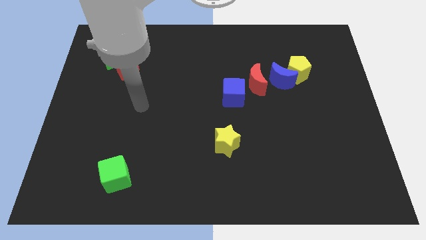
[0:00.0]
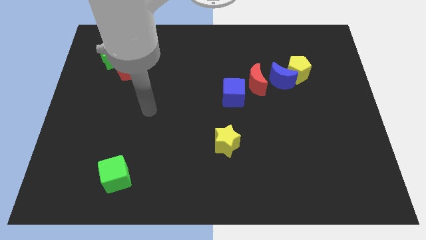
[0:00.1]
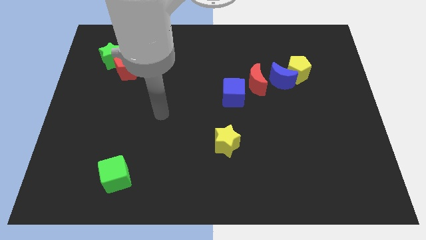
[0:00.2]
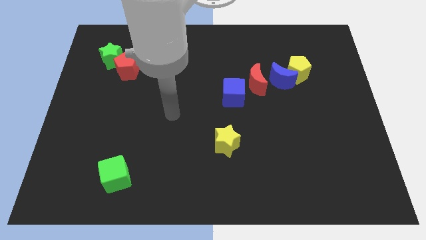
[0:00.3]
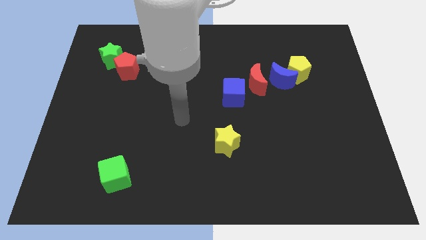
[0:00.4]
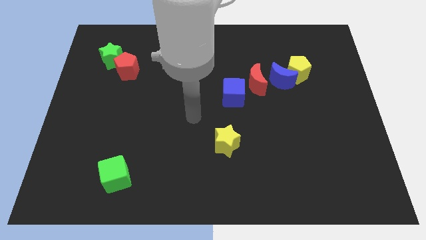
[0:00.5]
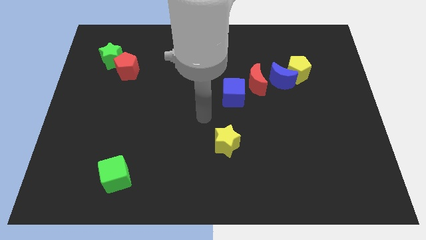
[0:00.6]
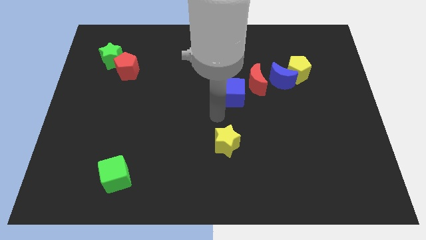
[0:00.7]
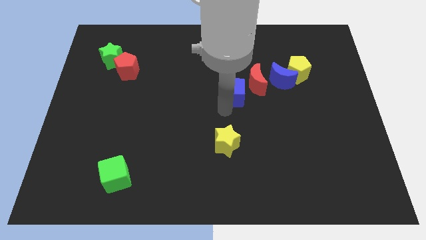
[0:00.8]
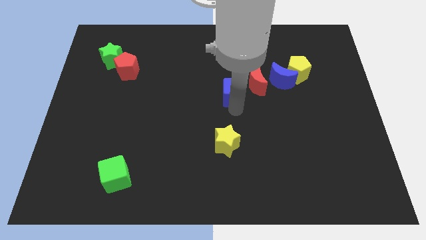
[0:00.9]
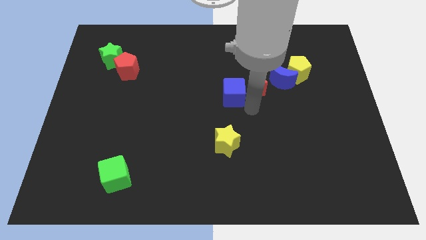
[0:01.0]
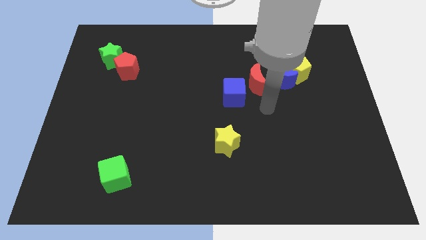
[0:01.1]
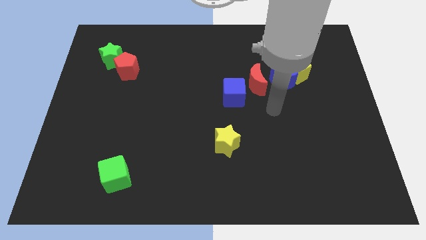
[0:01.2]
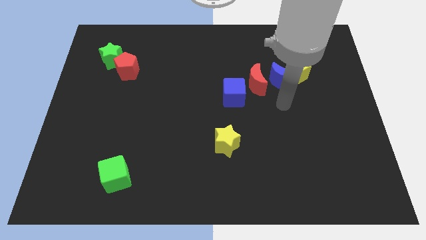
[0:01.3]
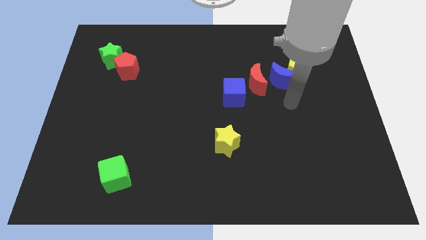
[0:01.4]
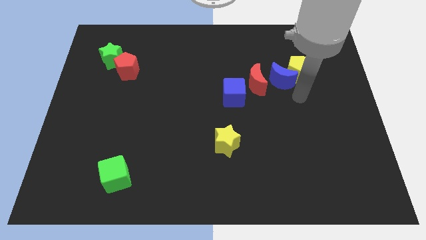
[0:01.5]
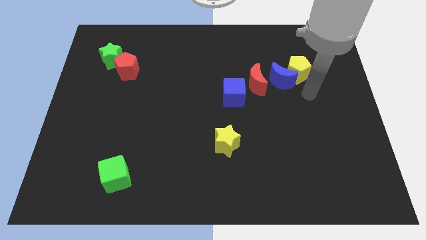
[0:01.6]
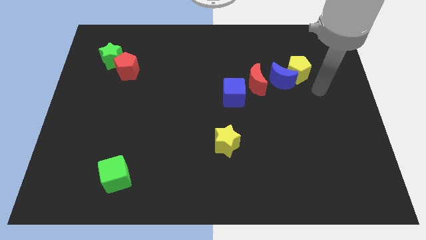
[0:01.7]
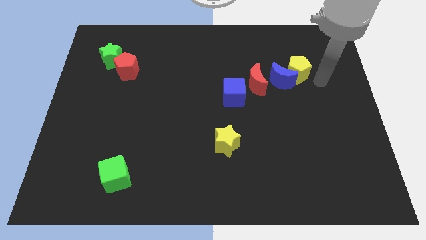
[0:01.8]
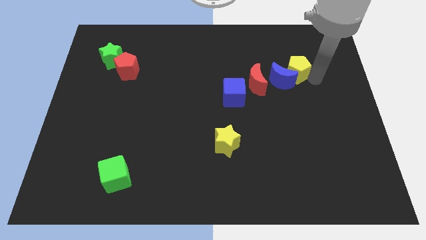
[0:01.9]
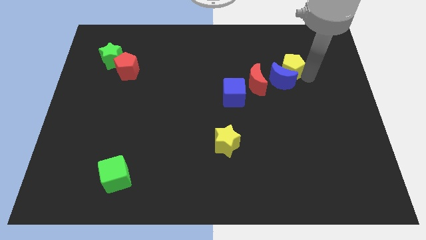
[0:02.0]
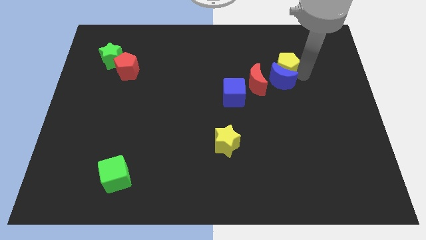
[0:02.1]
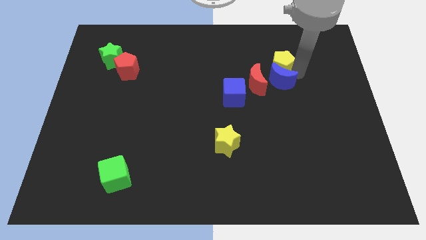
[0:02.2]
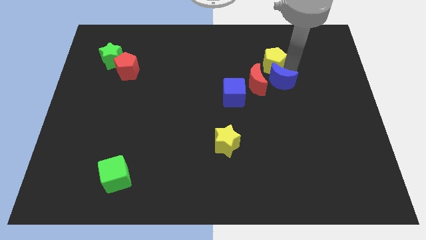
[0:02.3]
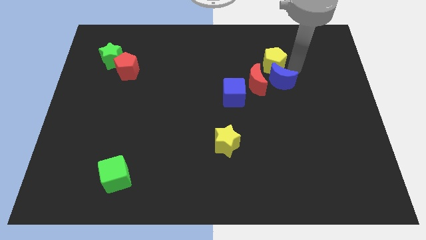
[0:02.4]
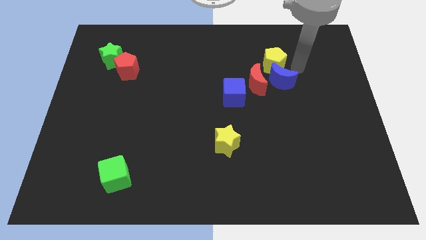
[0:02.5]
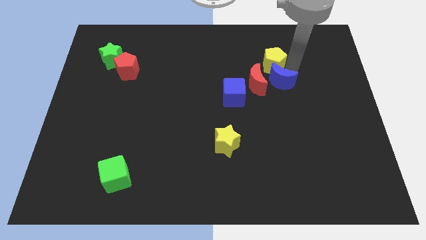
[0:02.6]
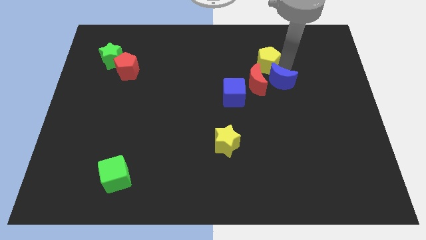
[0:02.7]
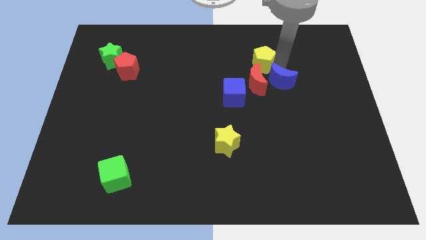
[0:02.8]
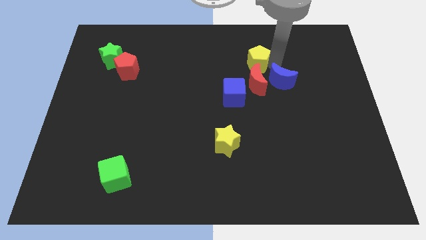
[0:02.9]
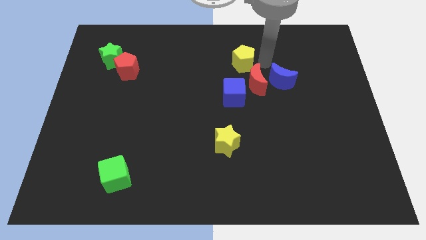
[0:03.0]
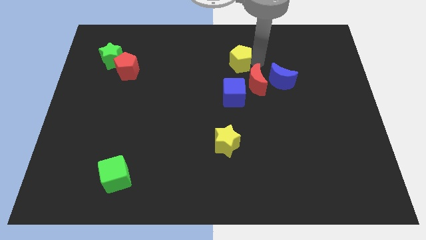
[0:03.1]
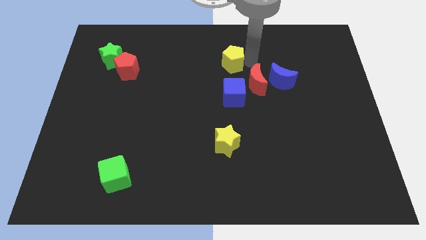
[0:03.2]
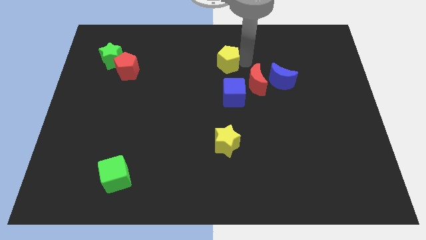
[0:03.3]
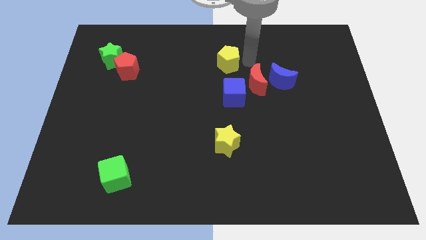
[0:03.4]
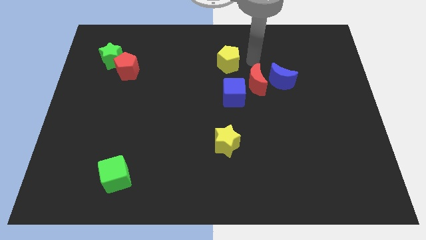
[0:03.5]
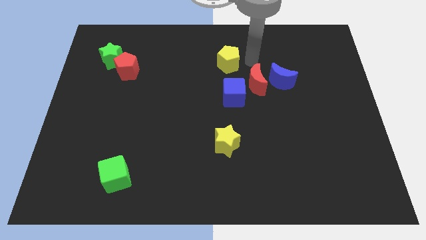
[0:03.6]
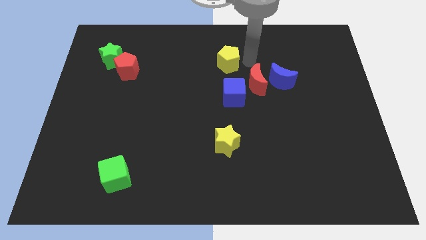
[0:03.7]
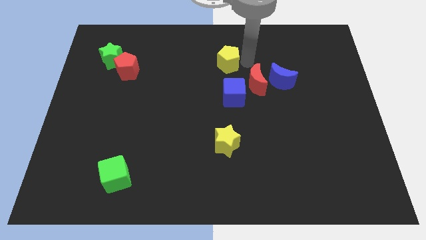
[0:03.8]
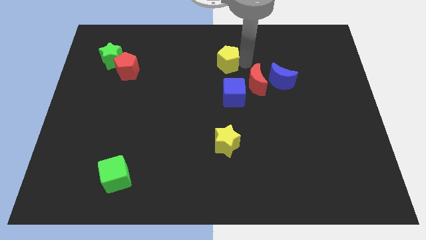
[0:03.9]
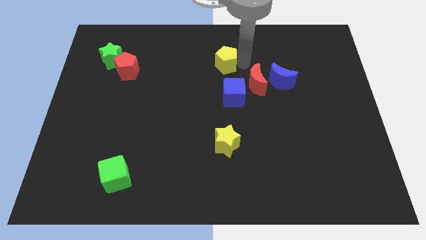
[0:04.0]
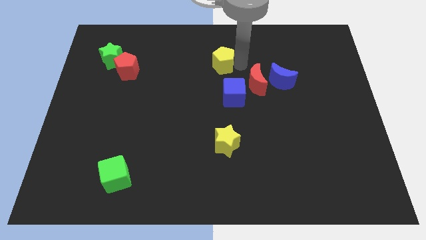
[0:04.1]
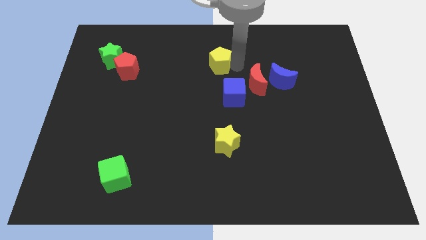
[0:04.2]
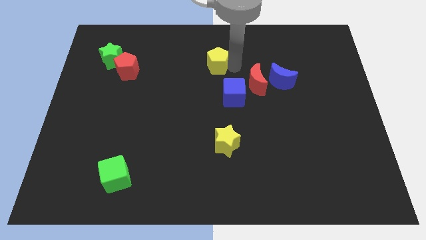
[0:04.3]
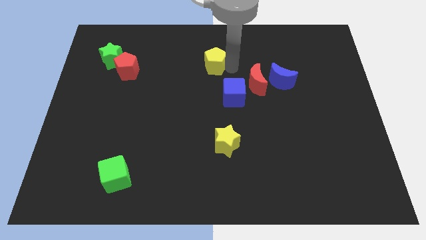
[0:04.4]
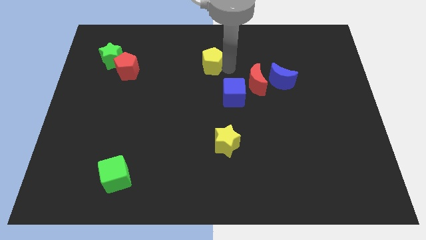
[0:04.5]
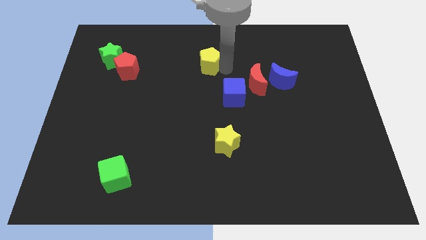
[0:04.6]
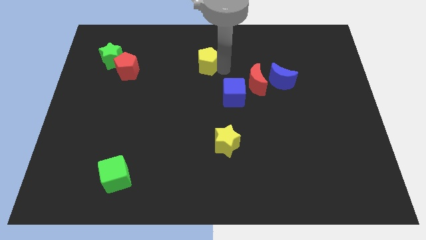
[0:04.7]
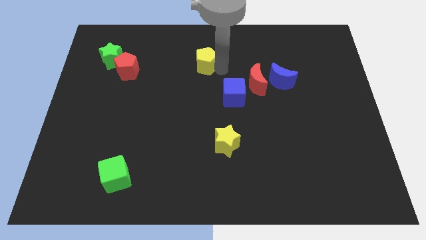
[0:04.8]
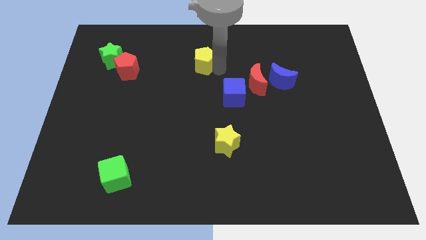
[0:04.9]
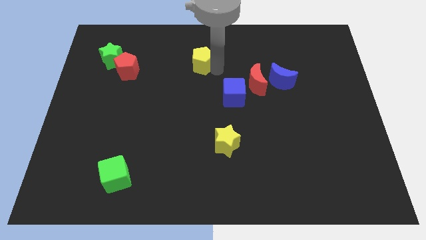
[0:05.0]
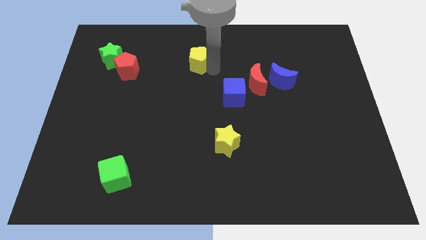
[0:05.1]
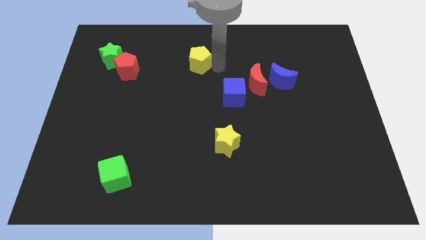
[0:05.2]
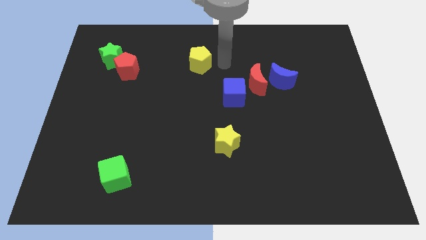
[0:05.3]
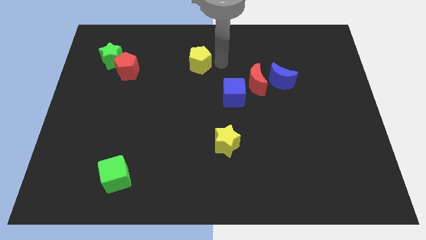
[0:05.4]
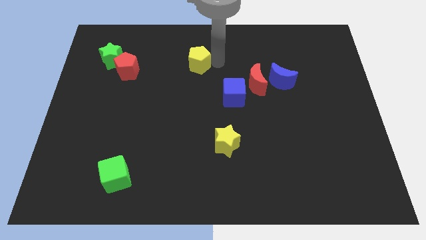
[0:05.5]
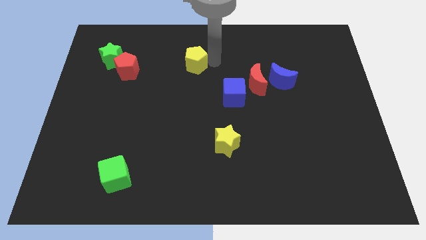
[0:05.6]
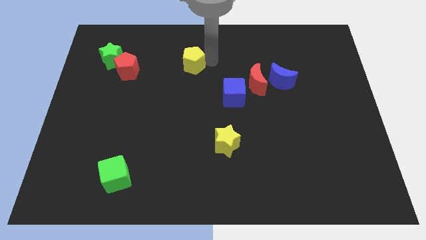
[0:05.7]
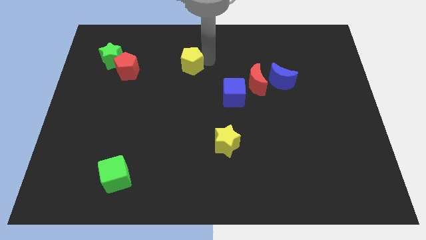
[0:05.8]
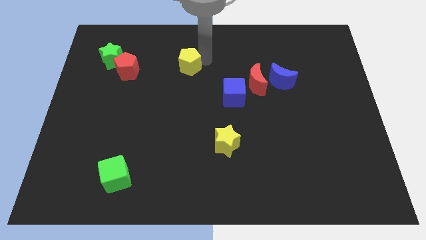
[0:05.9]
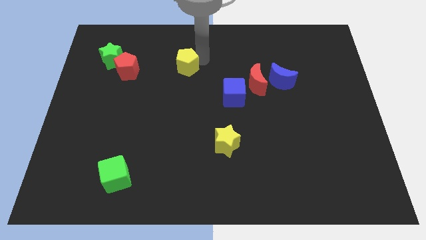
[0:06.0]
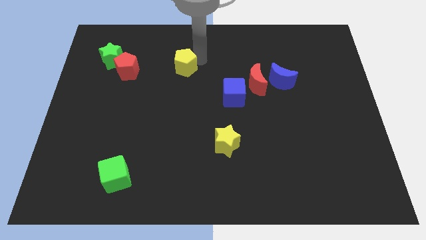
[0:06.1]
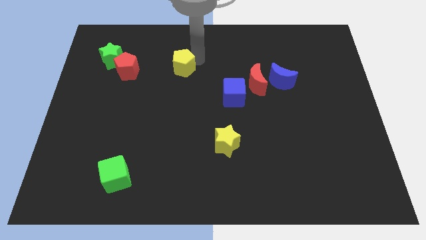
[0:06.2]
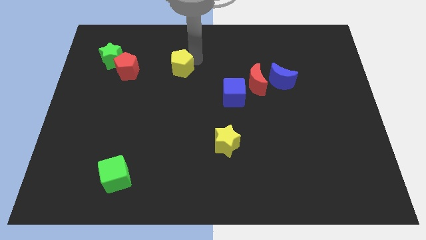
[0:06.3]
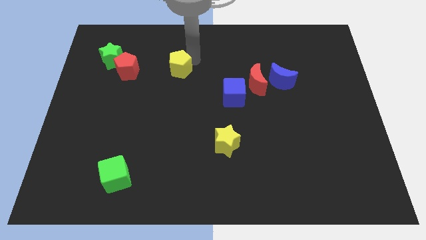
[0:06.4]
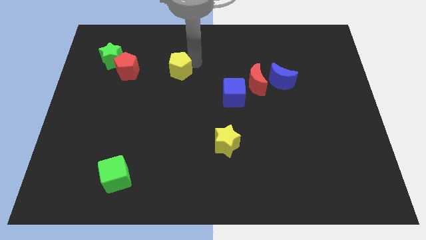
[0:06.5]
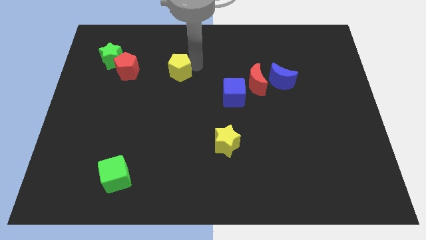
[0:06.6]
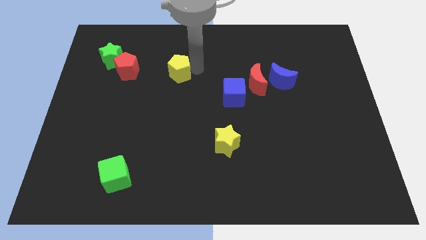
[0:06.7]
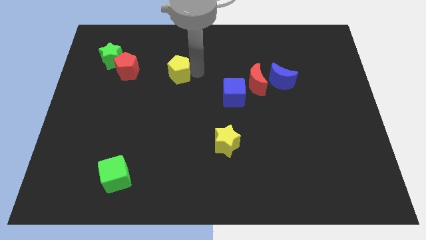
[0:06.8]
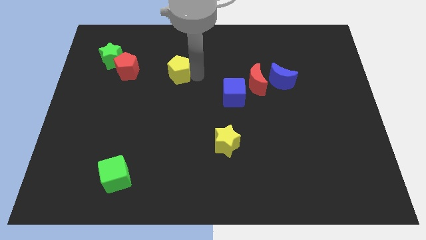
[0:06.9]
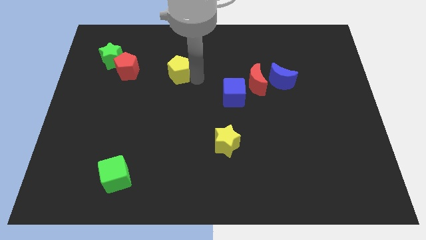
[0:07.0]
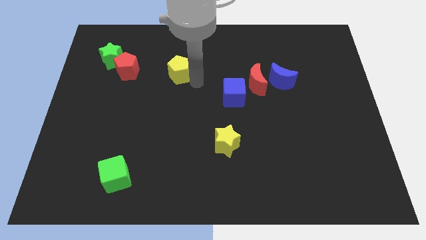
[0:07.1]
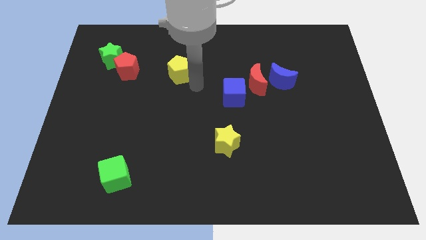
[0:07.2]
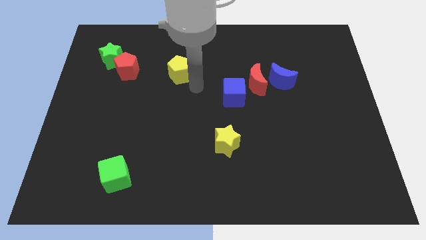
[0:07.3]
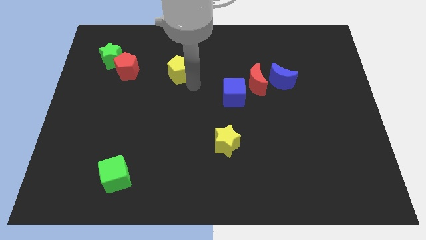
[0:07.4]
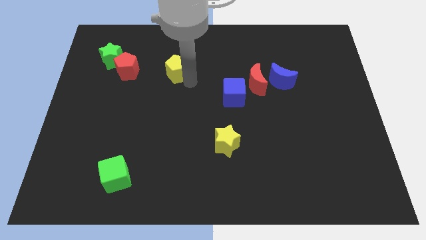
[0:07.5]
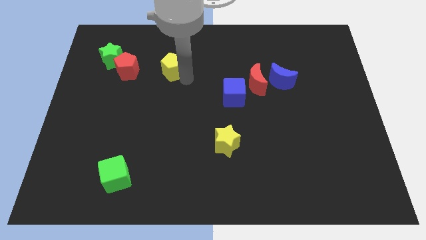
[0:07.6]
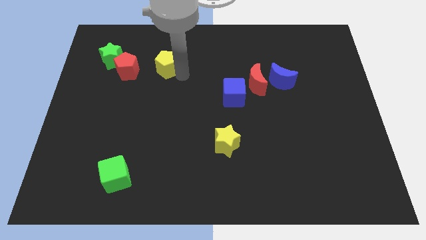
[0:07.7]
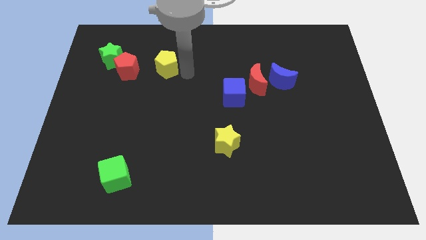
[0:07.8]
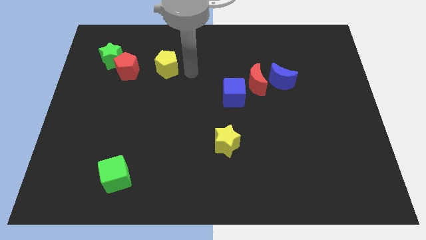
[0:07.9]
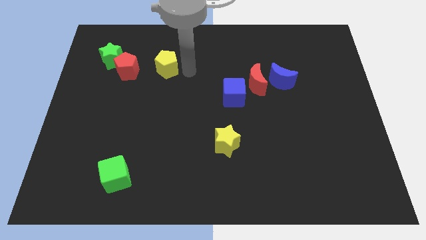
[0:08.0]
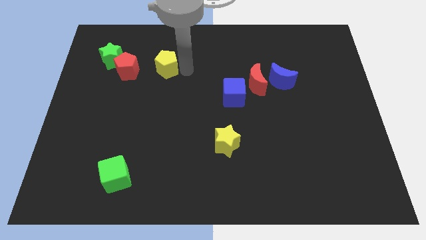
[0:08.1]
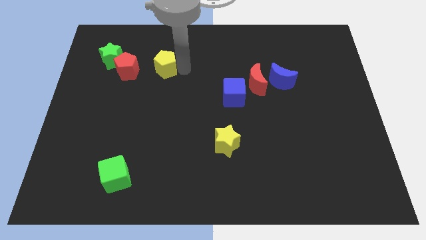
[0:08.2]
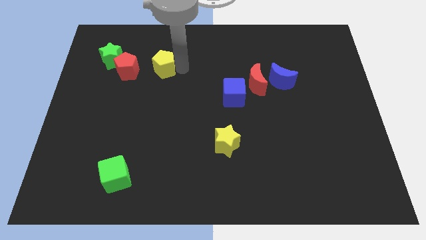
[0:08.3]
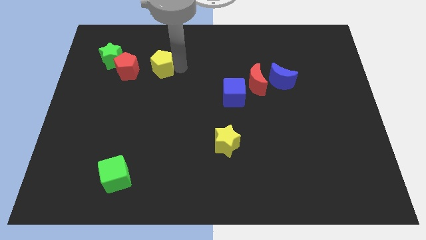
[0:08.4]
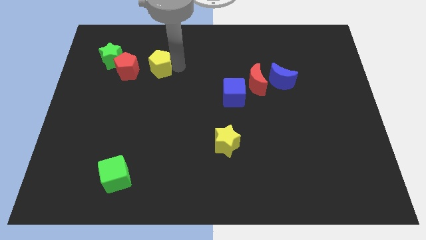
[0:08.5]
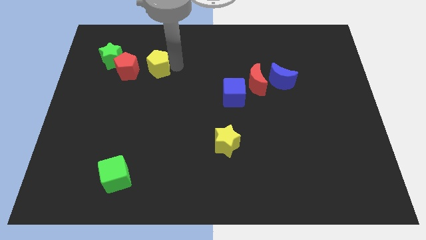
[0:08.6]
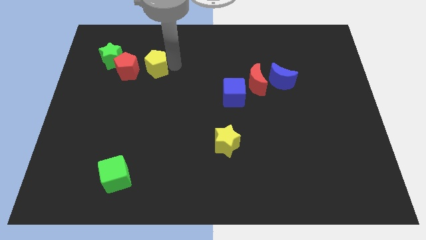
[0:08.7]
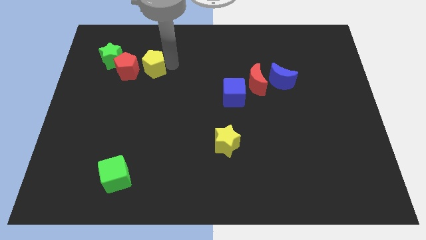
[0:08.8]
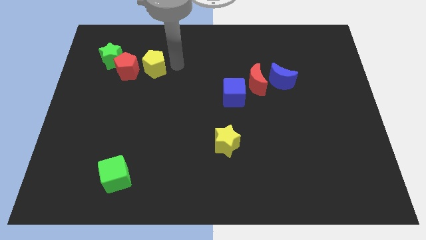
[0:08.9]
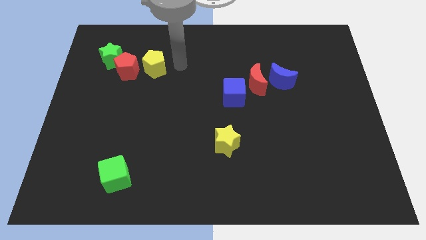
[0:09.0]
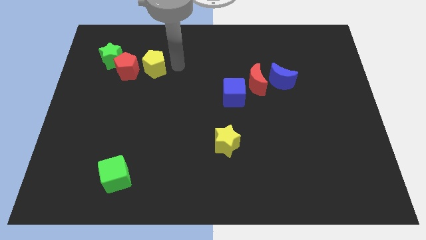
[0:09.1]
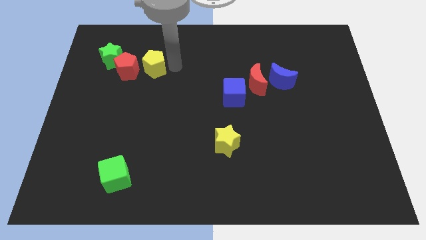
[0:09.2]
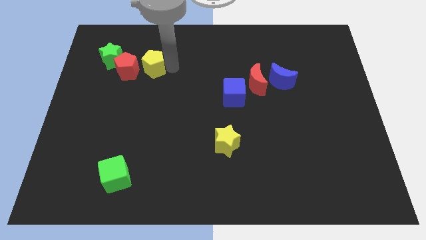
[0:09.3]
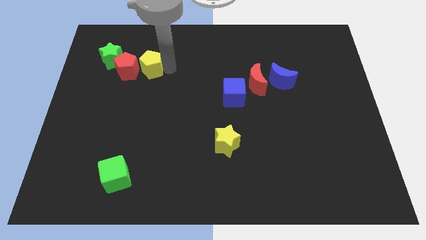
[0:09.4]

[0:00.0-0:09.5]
push the yellow pentagon next to the red pentagon
